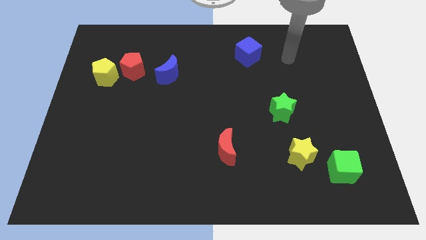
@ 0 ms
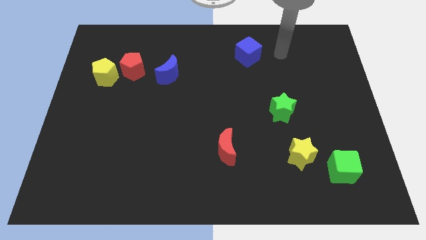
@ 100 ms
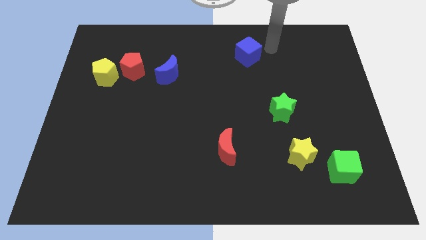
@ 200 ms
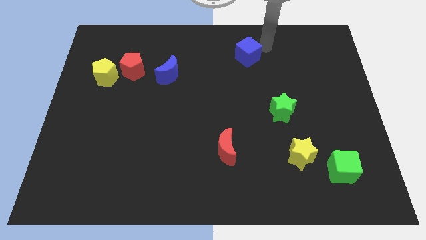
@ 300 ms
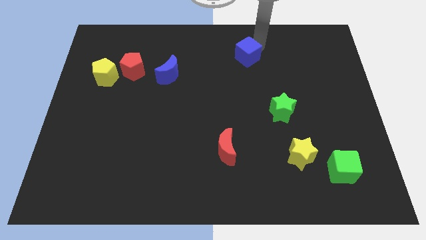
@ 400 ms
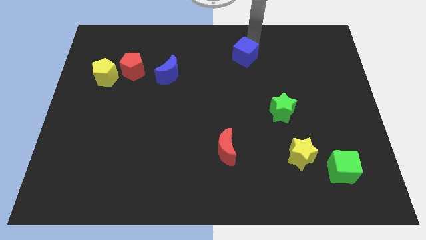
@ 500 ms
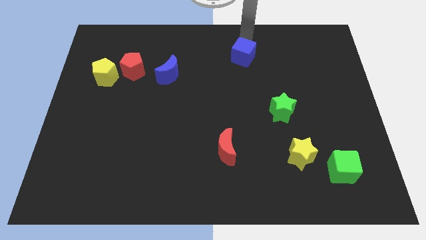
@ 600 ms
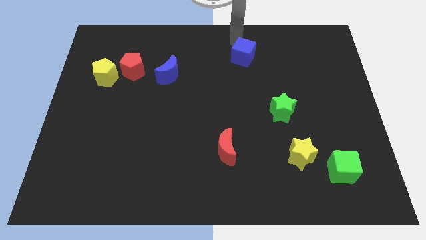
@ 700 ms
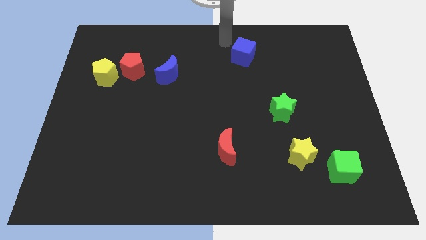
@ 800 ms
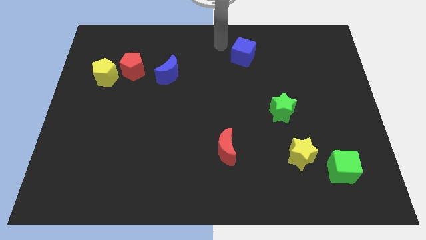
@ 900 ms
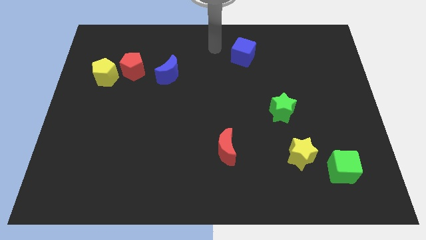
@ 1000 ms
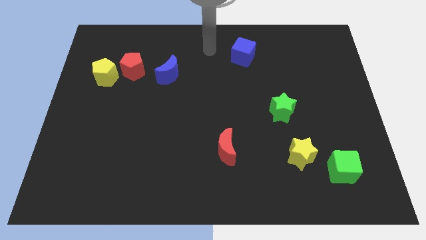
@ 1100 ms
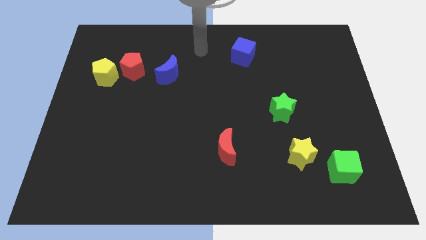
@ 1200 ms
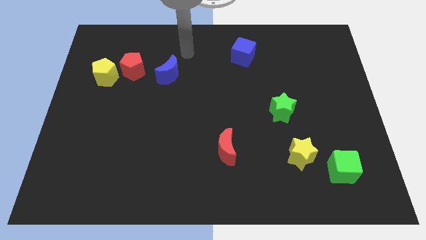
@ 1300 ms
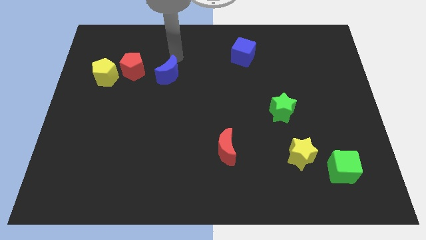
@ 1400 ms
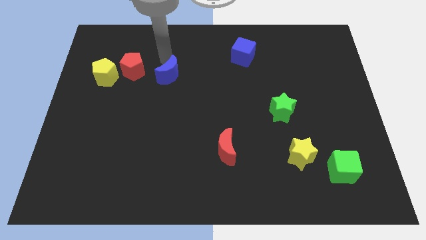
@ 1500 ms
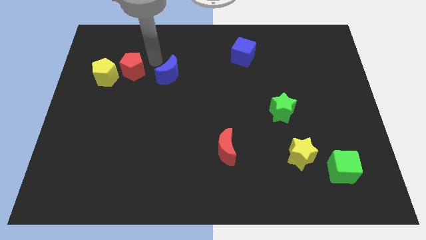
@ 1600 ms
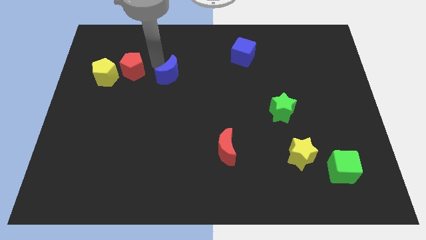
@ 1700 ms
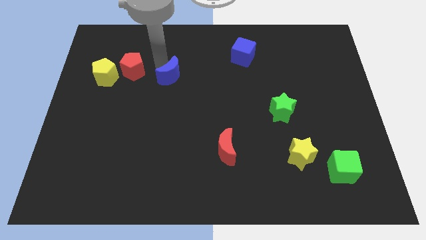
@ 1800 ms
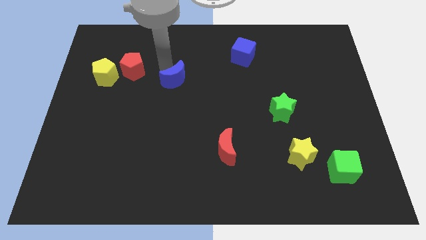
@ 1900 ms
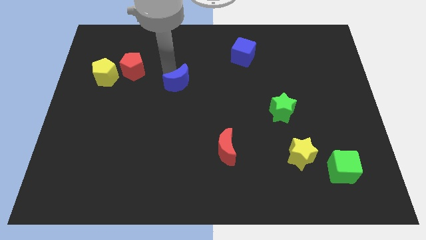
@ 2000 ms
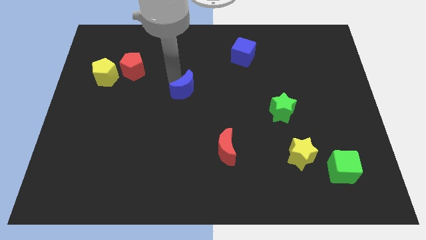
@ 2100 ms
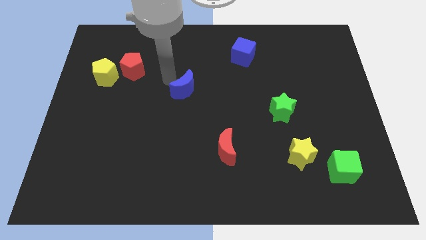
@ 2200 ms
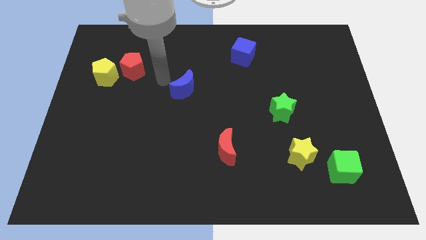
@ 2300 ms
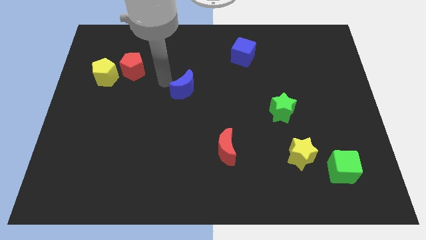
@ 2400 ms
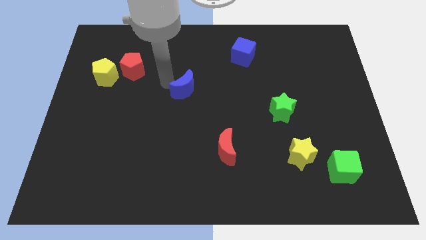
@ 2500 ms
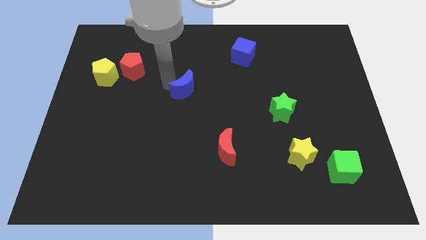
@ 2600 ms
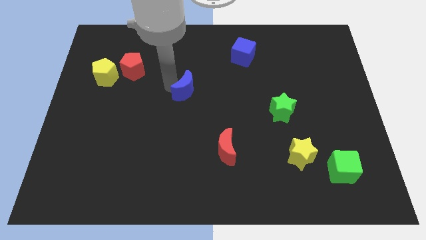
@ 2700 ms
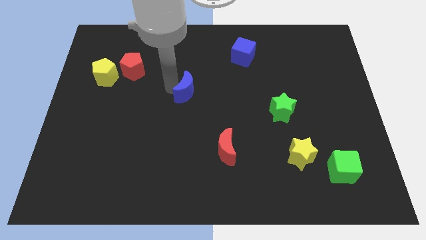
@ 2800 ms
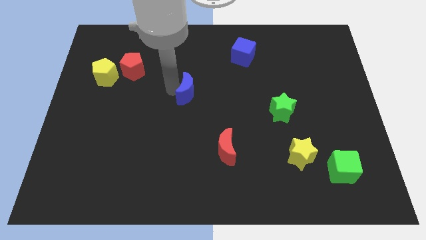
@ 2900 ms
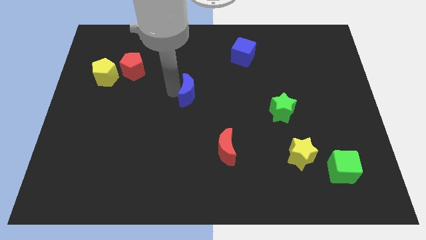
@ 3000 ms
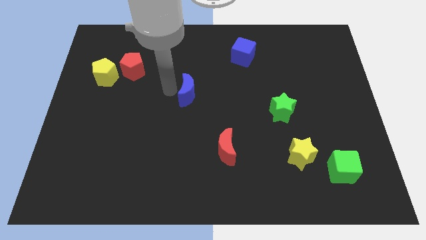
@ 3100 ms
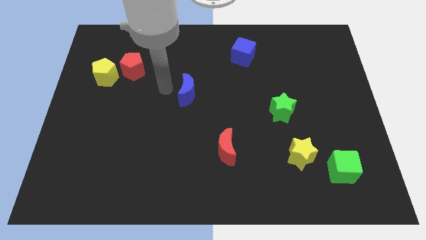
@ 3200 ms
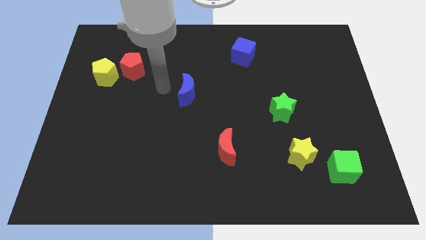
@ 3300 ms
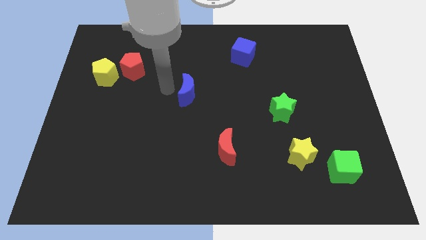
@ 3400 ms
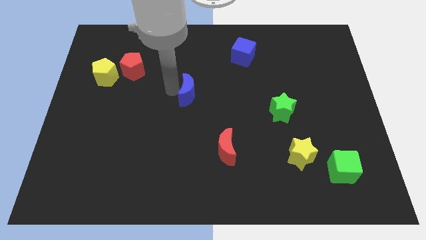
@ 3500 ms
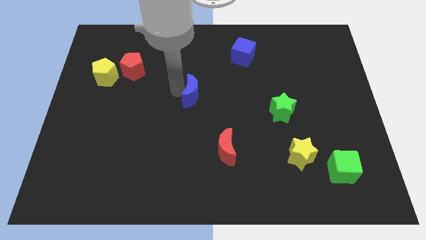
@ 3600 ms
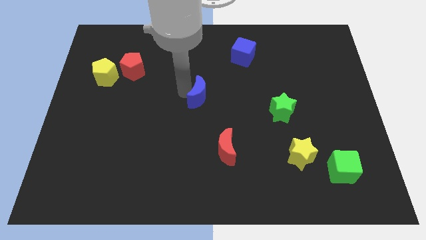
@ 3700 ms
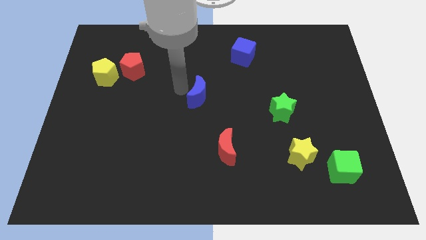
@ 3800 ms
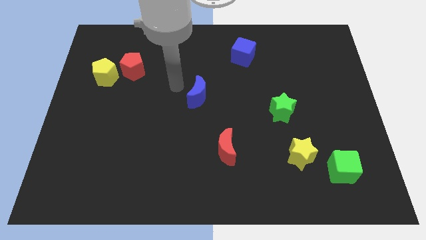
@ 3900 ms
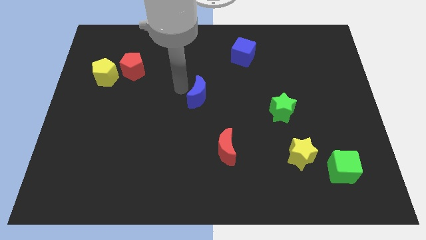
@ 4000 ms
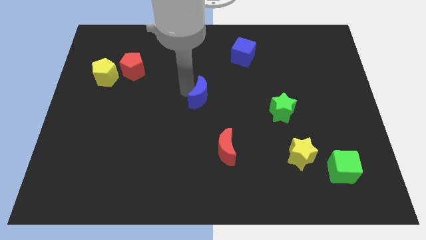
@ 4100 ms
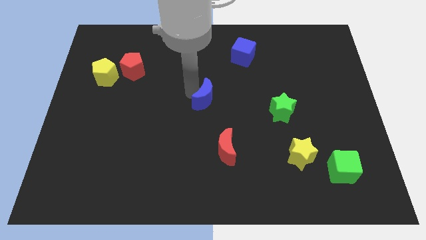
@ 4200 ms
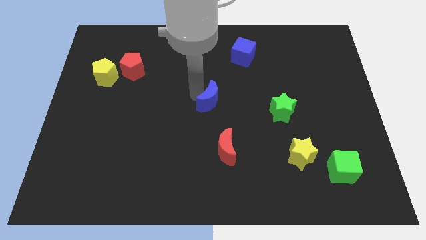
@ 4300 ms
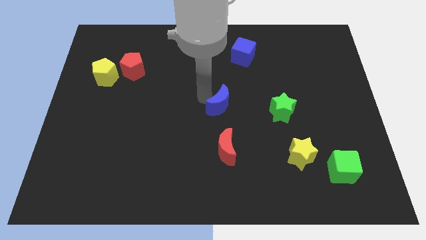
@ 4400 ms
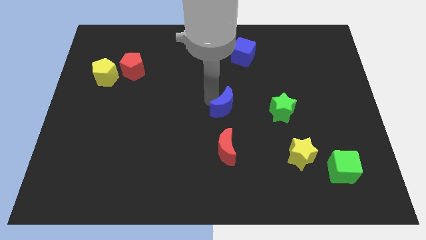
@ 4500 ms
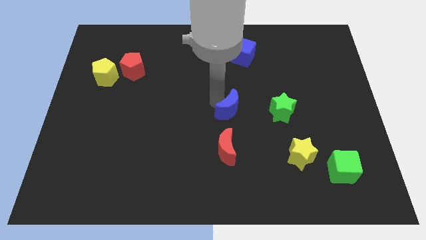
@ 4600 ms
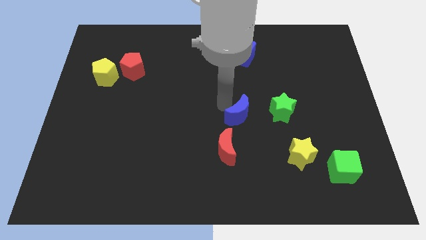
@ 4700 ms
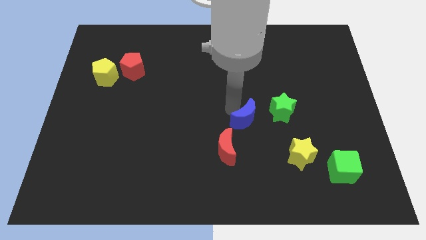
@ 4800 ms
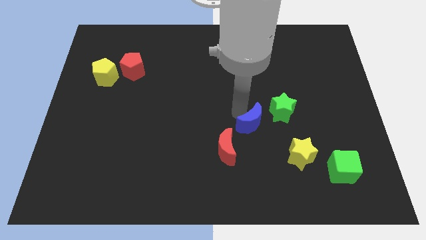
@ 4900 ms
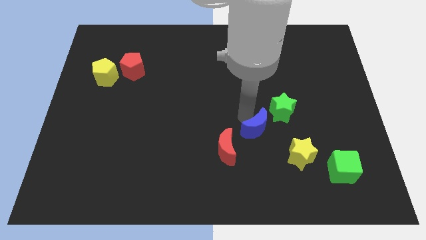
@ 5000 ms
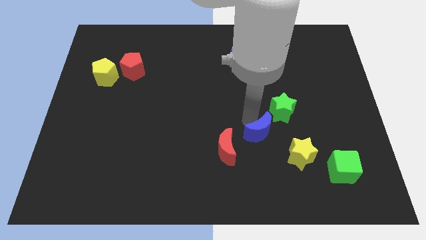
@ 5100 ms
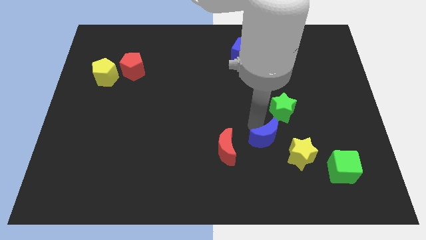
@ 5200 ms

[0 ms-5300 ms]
push the blue moon to the bottom side of the green star
